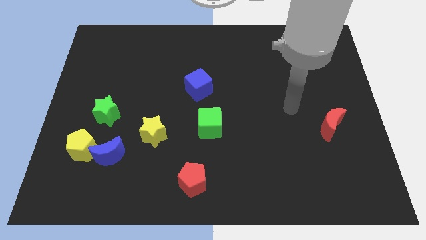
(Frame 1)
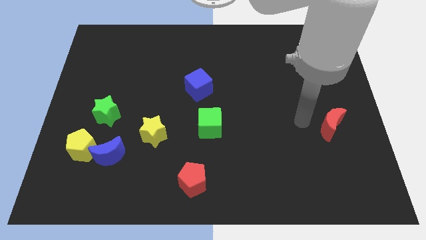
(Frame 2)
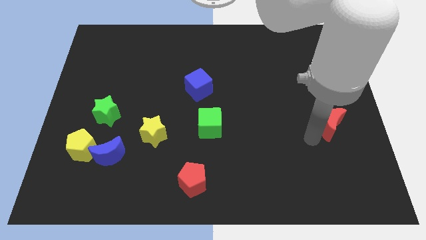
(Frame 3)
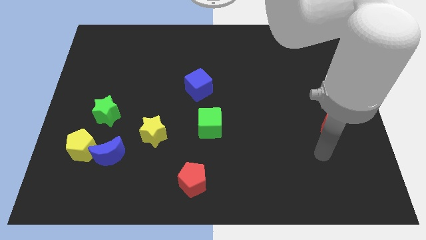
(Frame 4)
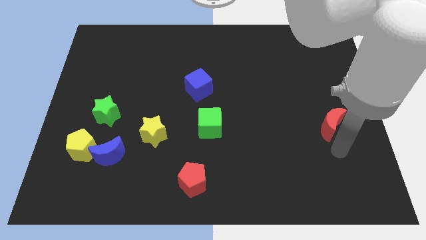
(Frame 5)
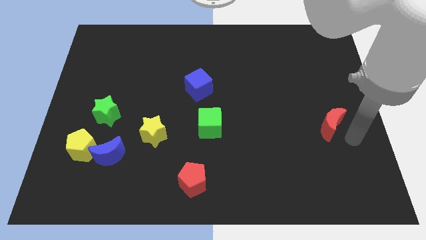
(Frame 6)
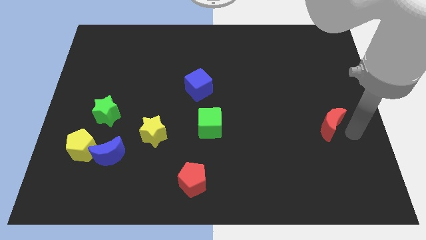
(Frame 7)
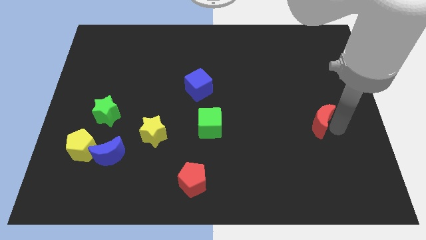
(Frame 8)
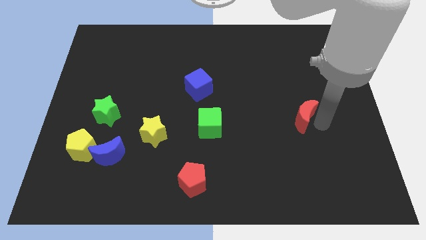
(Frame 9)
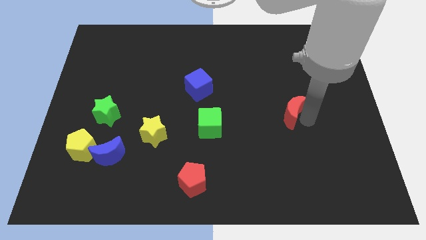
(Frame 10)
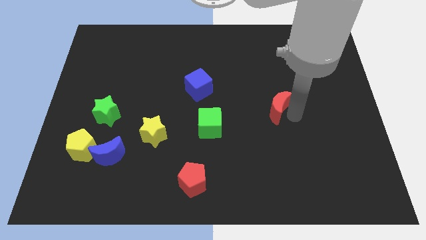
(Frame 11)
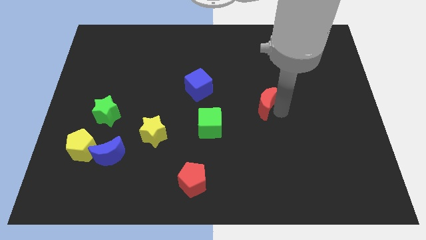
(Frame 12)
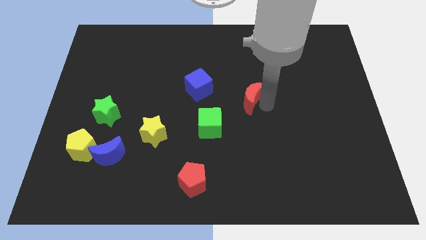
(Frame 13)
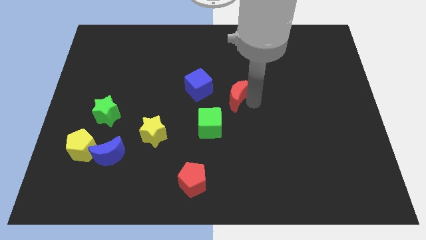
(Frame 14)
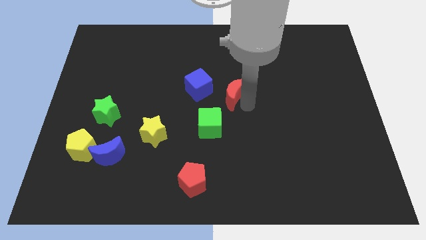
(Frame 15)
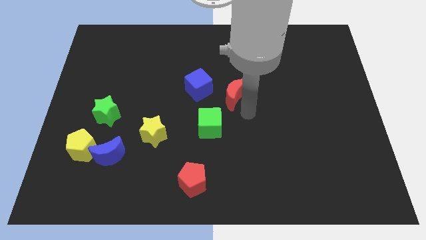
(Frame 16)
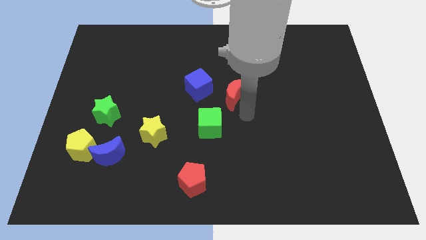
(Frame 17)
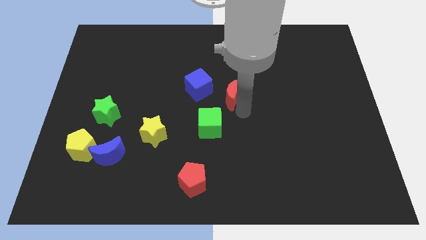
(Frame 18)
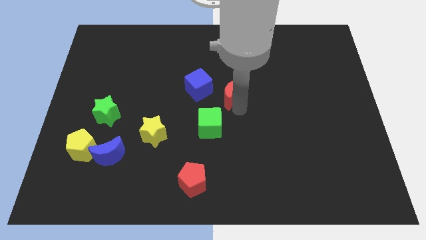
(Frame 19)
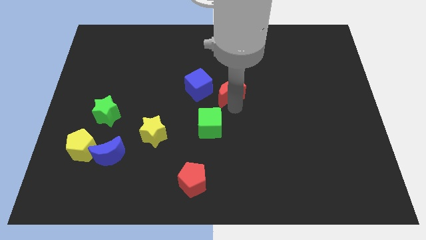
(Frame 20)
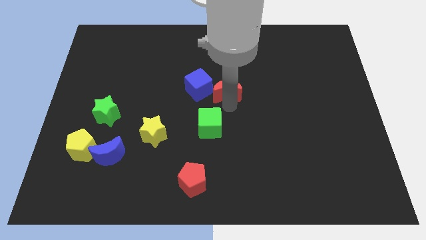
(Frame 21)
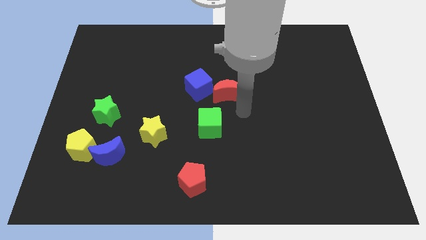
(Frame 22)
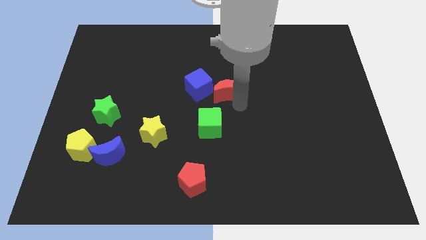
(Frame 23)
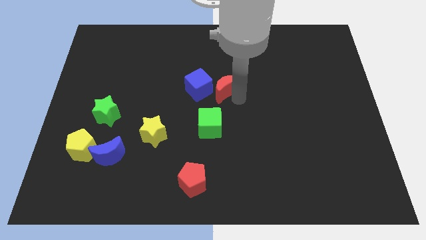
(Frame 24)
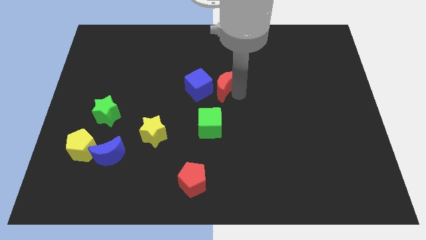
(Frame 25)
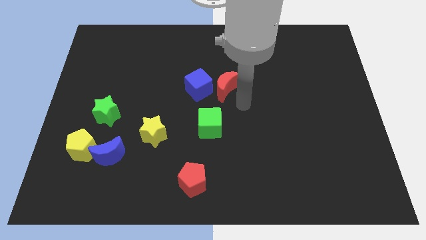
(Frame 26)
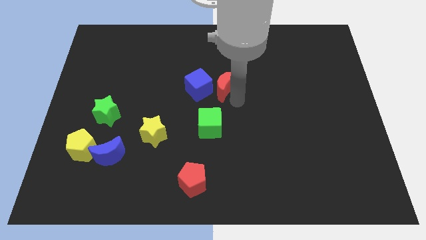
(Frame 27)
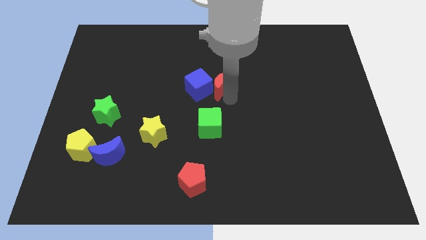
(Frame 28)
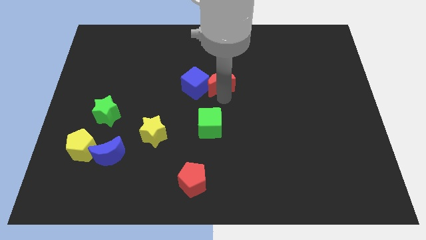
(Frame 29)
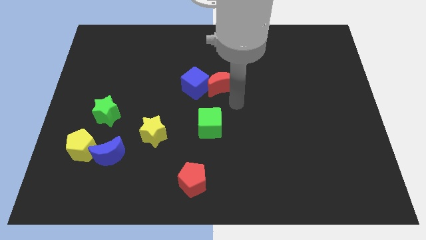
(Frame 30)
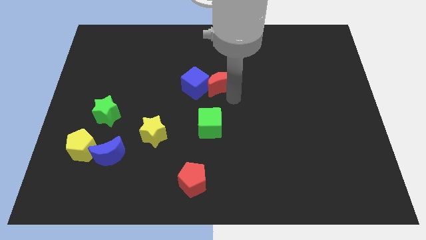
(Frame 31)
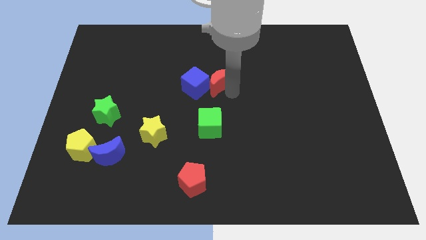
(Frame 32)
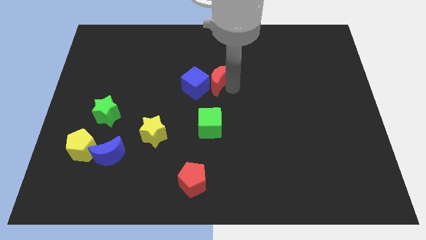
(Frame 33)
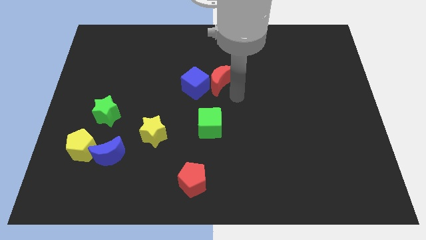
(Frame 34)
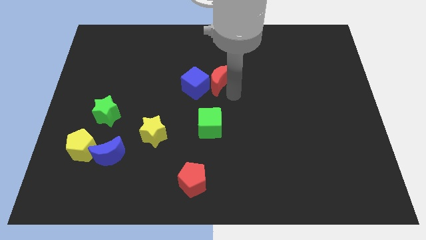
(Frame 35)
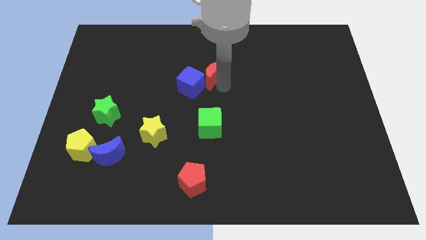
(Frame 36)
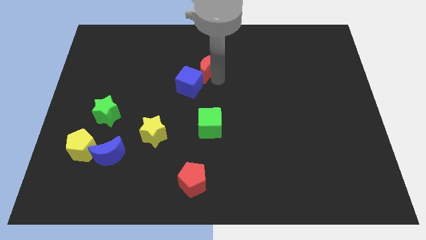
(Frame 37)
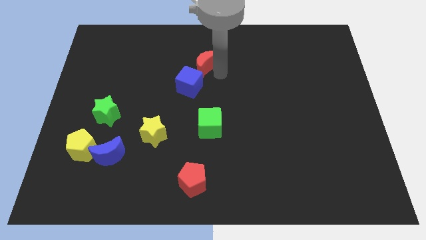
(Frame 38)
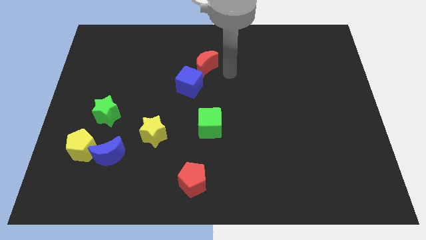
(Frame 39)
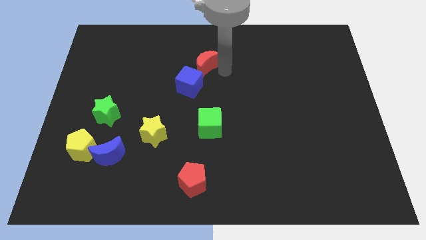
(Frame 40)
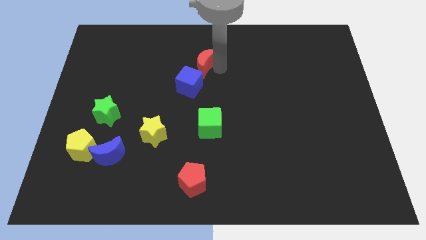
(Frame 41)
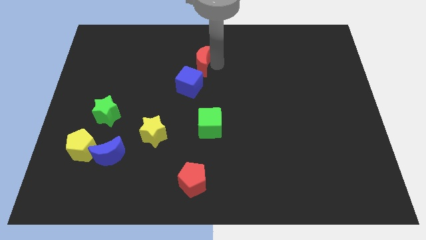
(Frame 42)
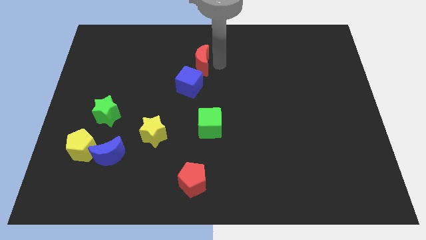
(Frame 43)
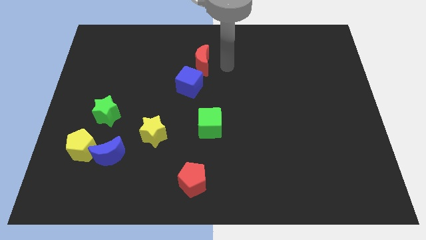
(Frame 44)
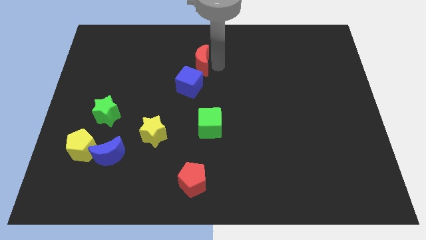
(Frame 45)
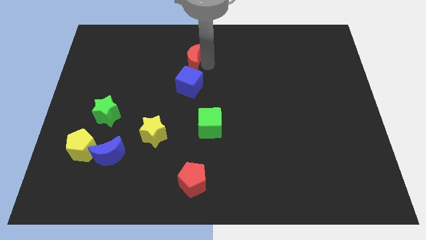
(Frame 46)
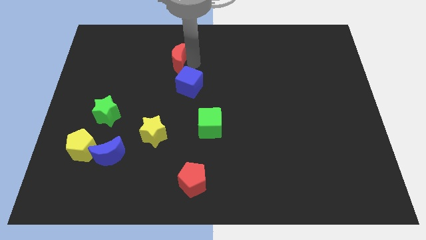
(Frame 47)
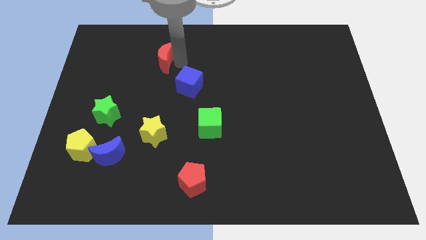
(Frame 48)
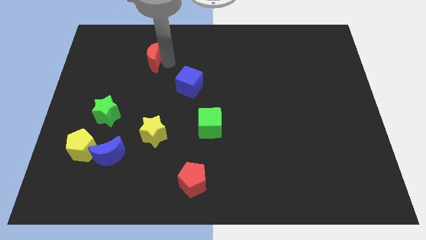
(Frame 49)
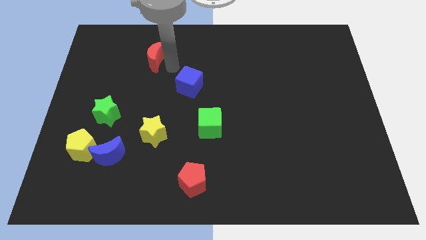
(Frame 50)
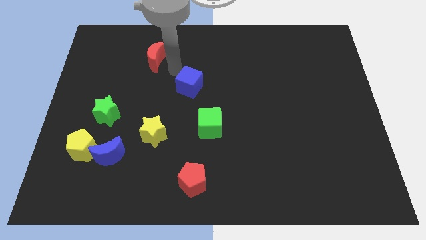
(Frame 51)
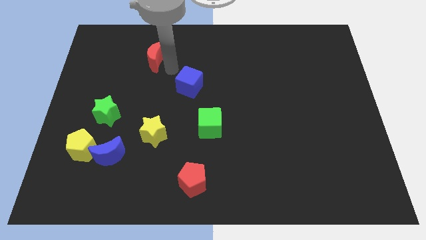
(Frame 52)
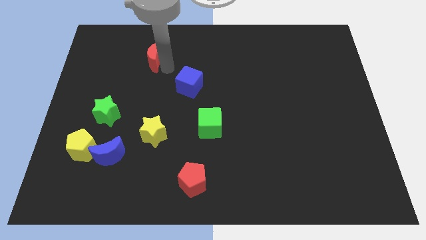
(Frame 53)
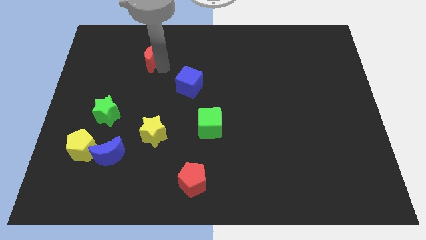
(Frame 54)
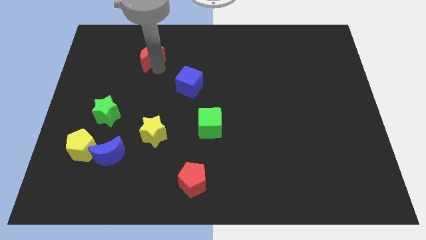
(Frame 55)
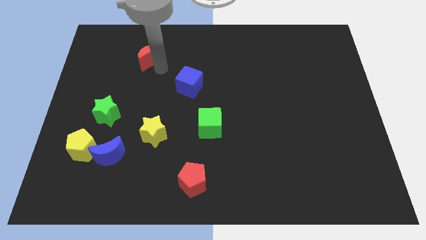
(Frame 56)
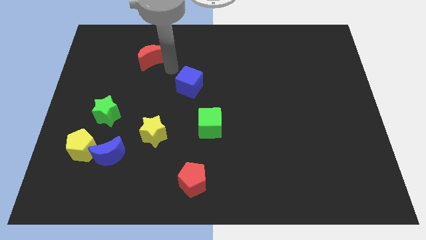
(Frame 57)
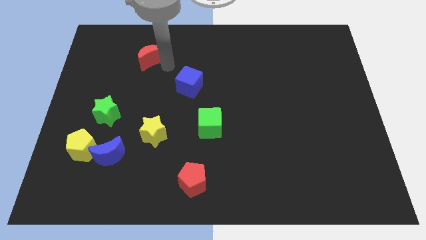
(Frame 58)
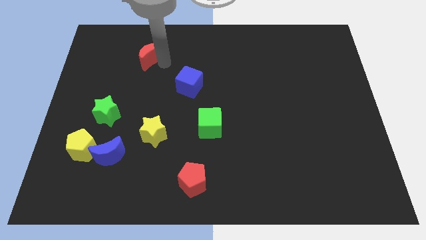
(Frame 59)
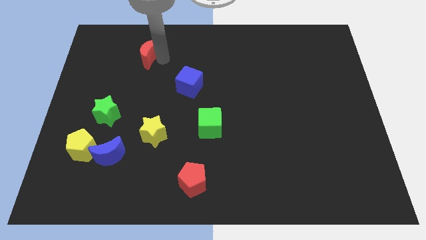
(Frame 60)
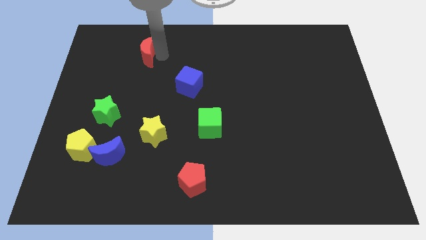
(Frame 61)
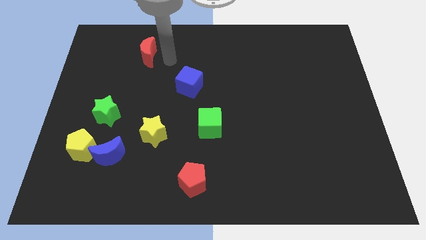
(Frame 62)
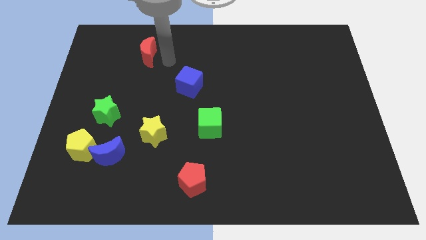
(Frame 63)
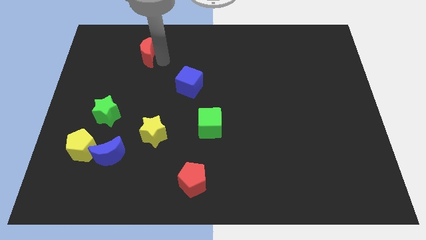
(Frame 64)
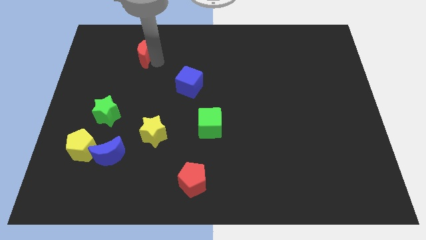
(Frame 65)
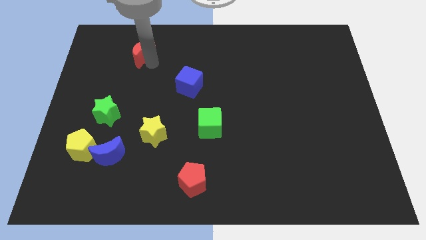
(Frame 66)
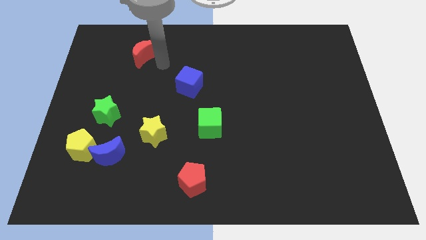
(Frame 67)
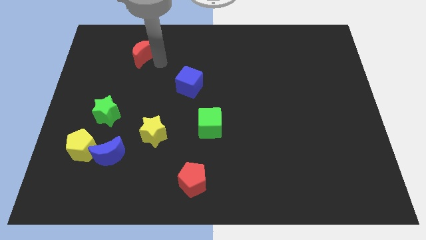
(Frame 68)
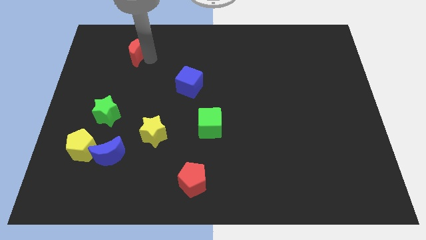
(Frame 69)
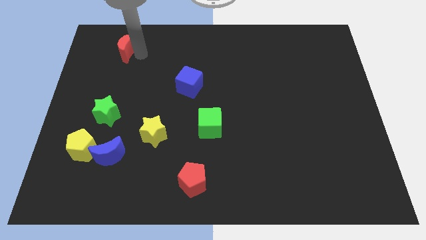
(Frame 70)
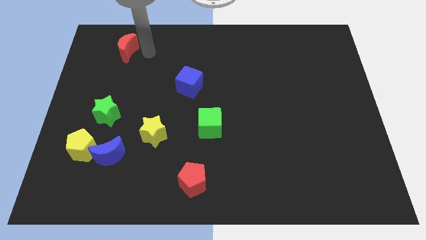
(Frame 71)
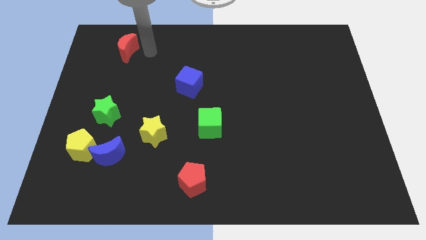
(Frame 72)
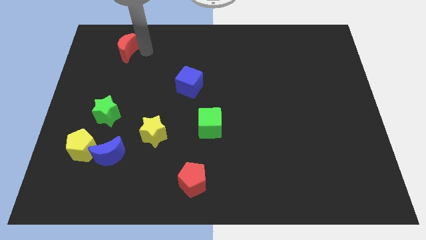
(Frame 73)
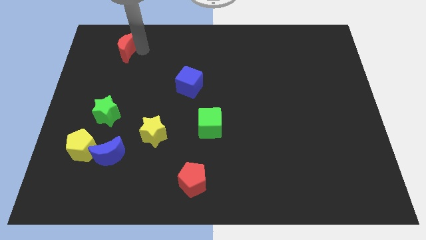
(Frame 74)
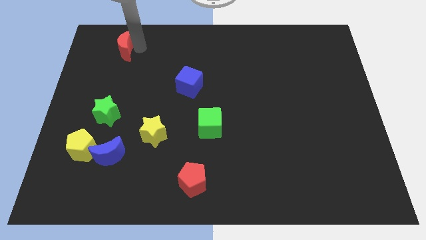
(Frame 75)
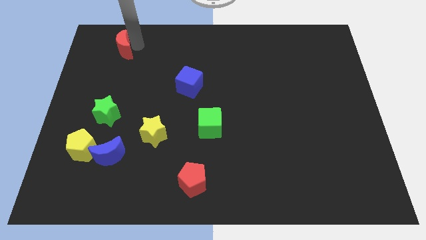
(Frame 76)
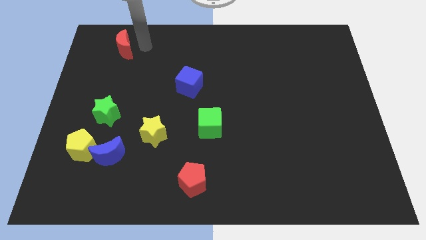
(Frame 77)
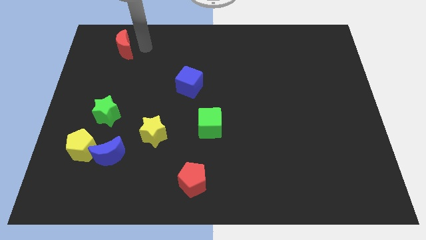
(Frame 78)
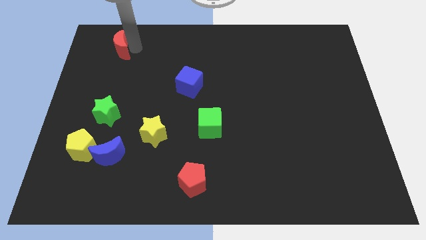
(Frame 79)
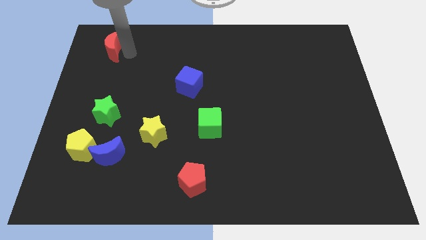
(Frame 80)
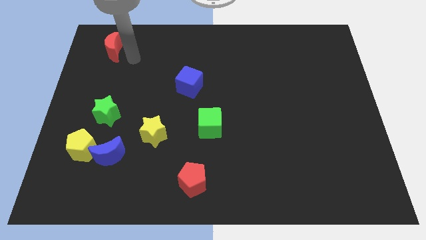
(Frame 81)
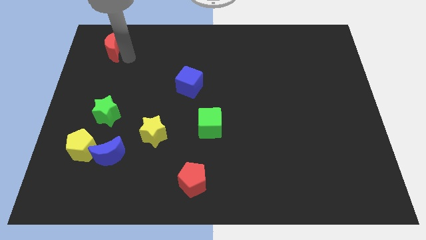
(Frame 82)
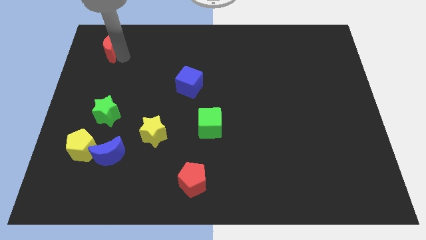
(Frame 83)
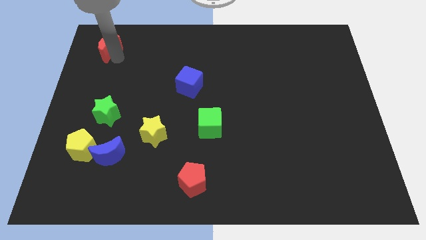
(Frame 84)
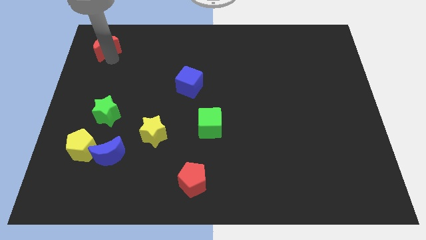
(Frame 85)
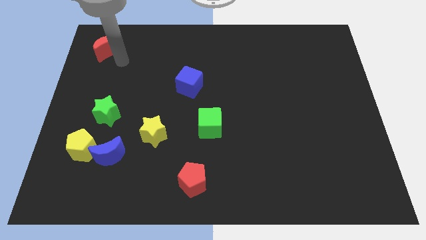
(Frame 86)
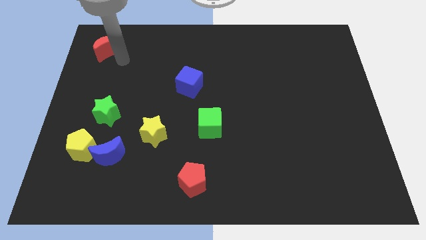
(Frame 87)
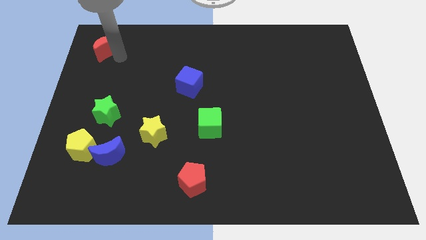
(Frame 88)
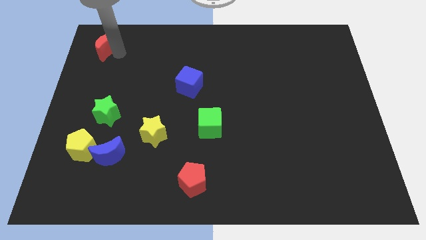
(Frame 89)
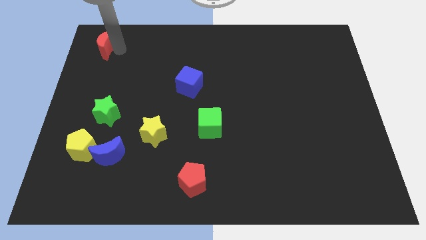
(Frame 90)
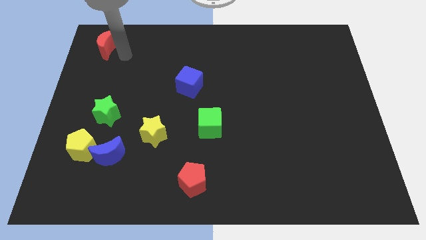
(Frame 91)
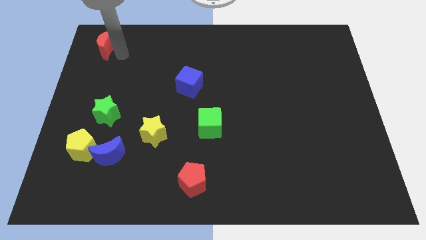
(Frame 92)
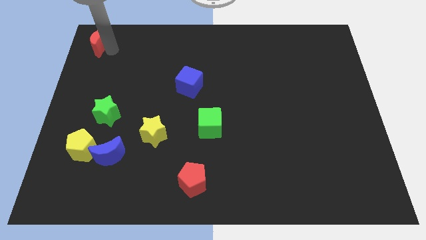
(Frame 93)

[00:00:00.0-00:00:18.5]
put the red moon to the top left corner
